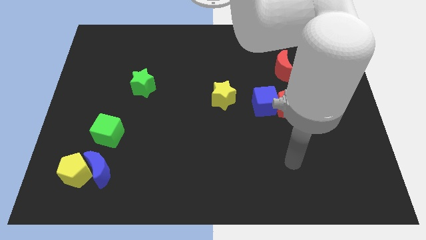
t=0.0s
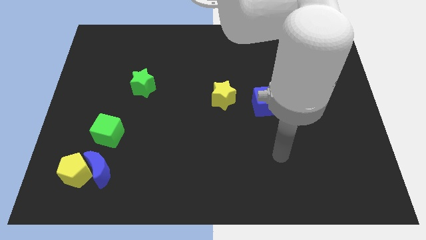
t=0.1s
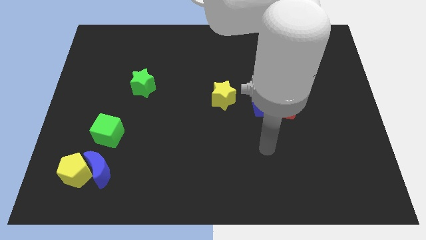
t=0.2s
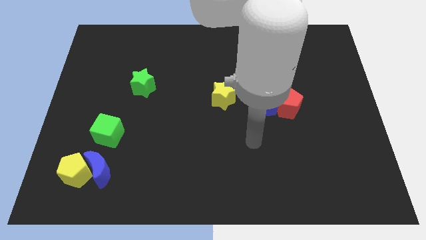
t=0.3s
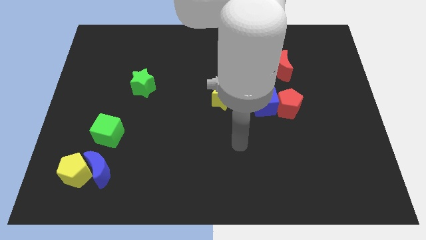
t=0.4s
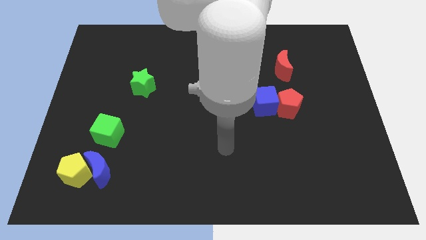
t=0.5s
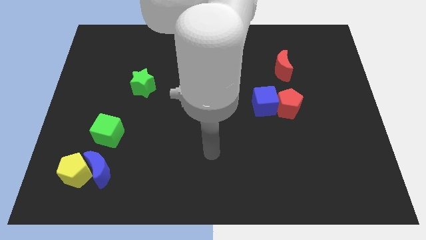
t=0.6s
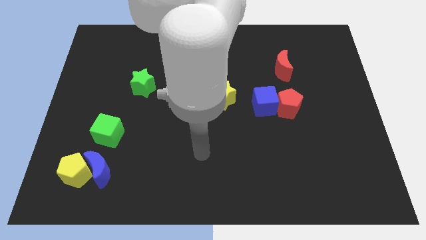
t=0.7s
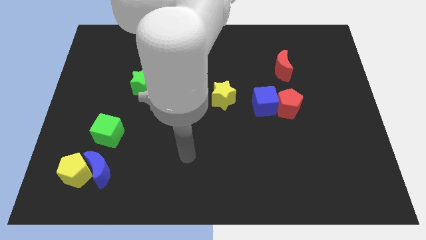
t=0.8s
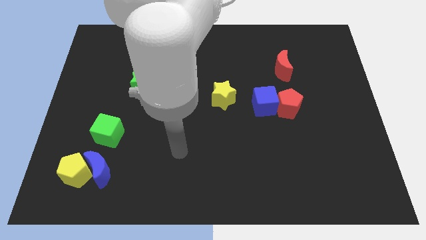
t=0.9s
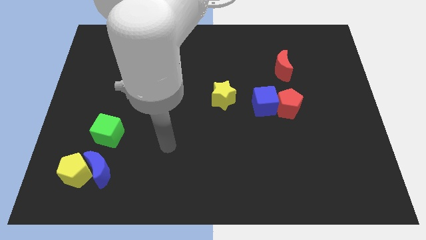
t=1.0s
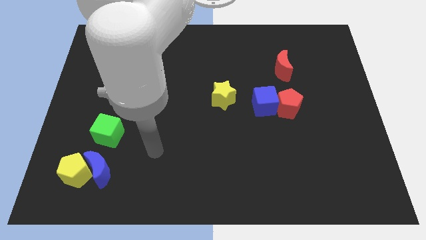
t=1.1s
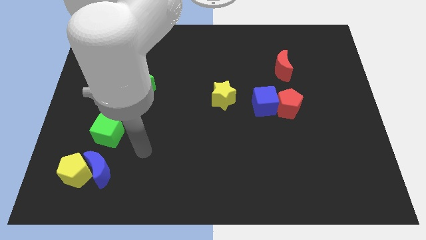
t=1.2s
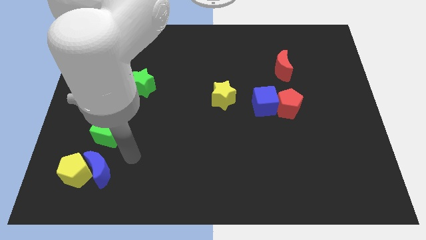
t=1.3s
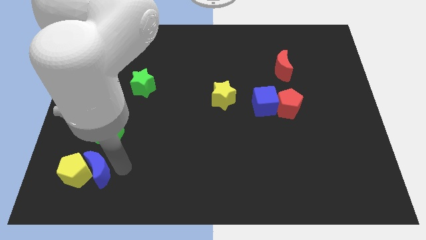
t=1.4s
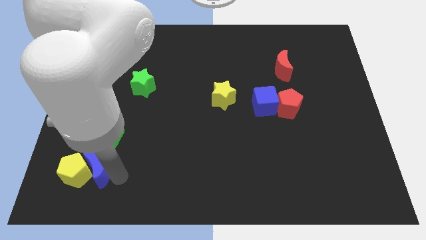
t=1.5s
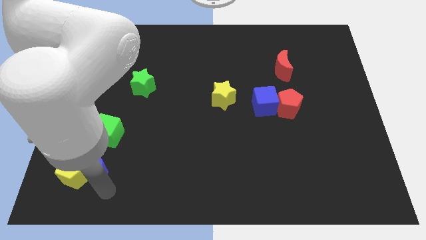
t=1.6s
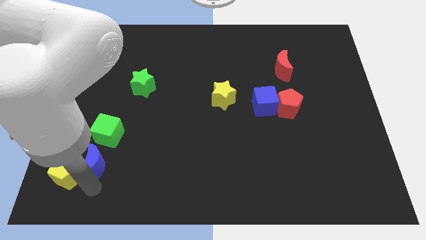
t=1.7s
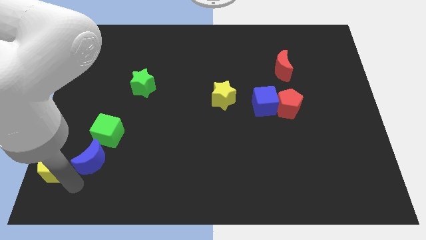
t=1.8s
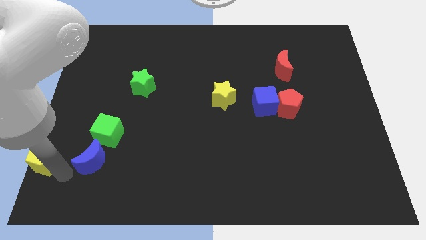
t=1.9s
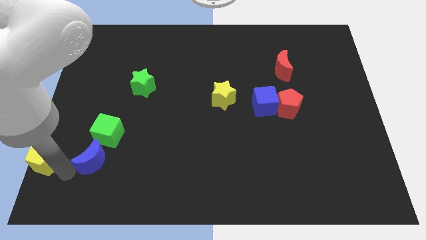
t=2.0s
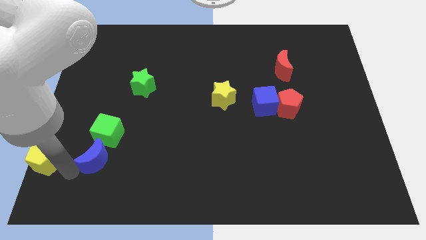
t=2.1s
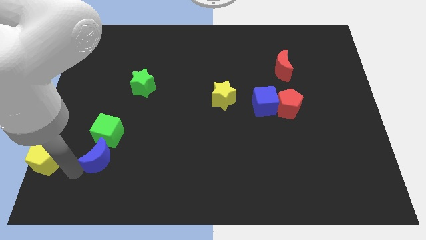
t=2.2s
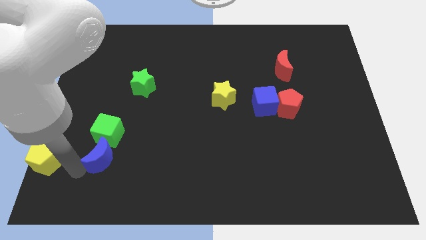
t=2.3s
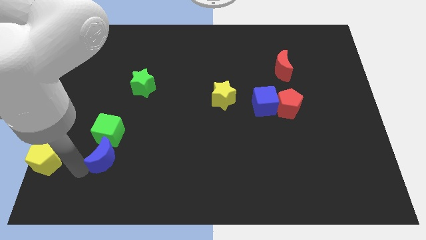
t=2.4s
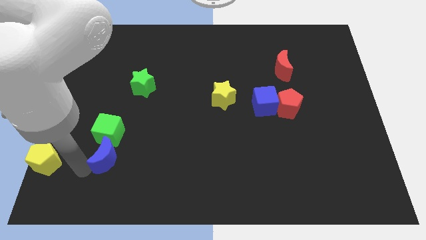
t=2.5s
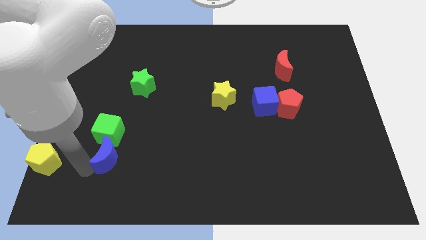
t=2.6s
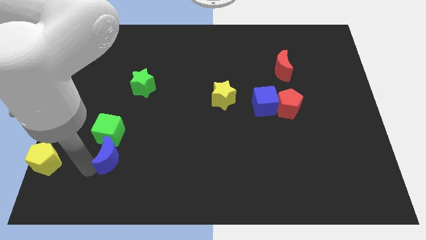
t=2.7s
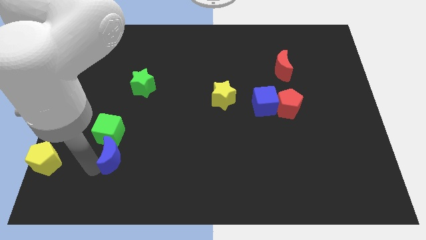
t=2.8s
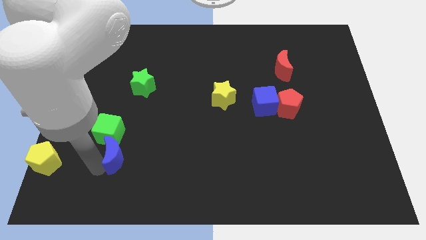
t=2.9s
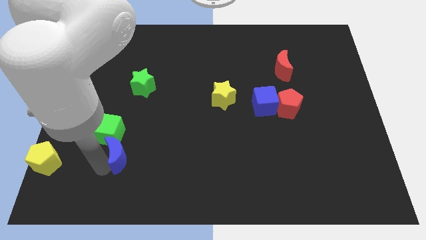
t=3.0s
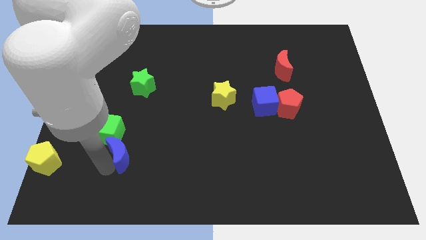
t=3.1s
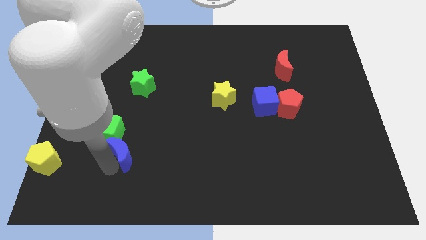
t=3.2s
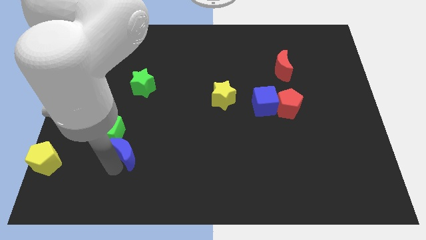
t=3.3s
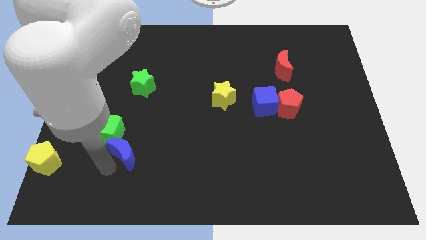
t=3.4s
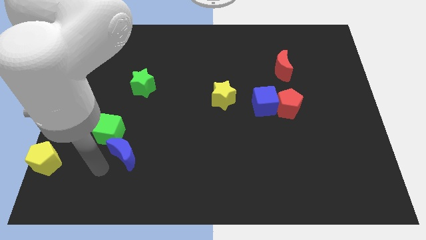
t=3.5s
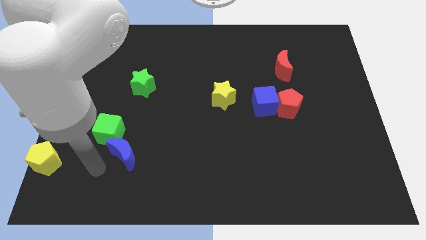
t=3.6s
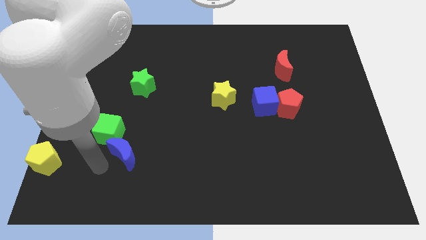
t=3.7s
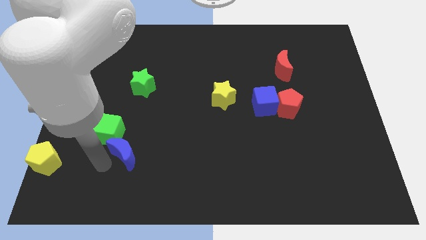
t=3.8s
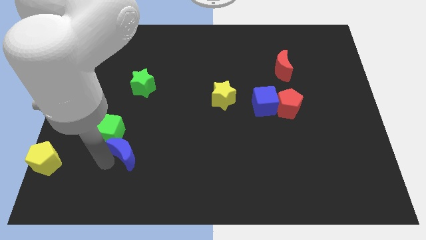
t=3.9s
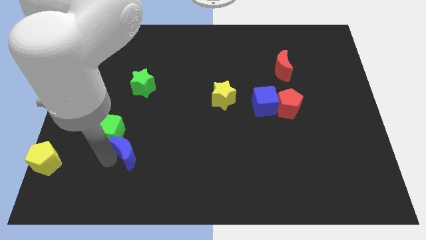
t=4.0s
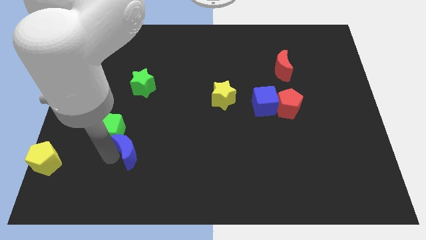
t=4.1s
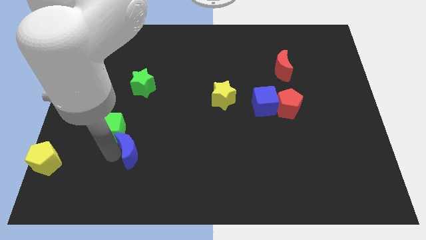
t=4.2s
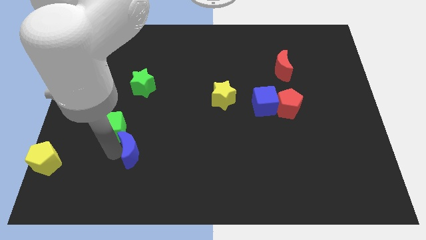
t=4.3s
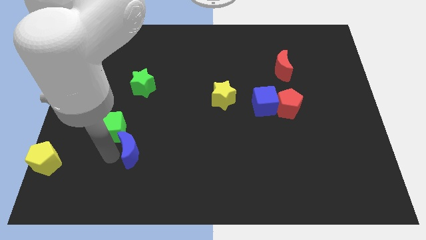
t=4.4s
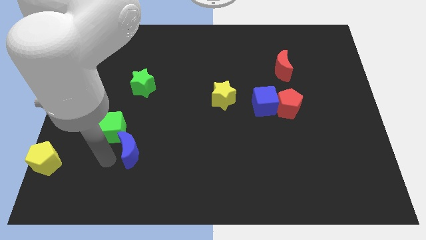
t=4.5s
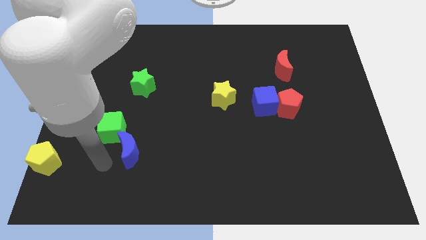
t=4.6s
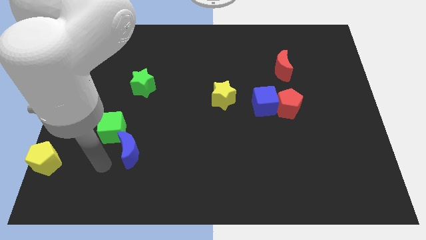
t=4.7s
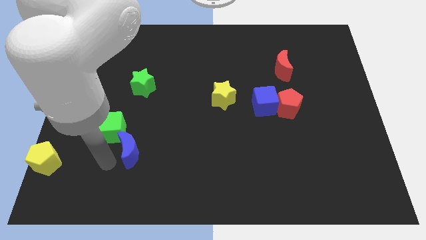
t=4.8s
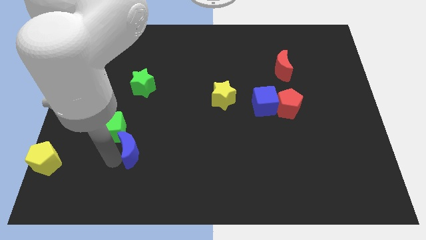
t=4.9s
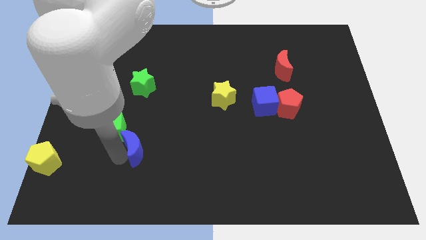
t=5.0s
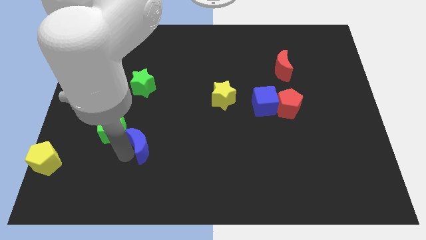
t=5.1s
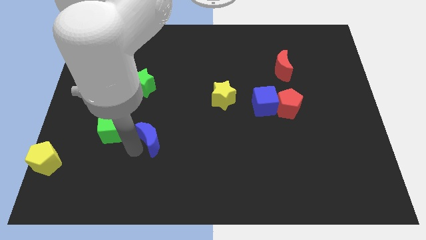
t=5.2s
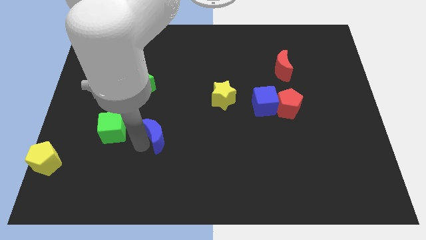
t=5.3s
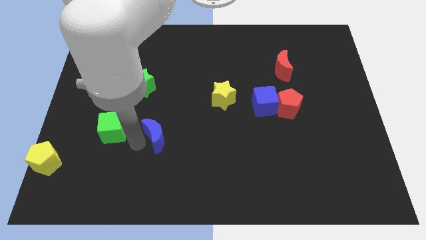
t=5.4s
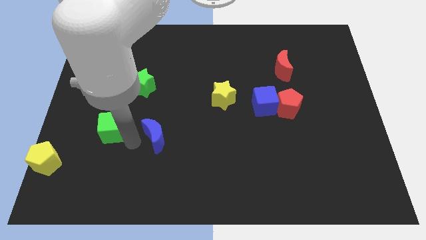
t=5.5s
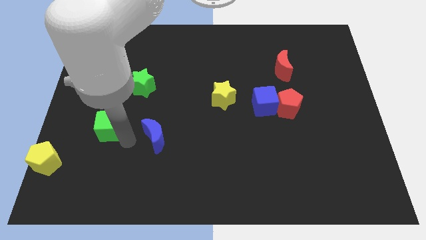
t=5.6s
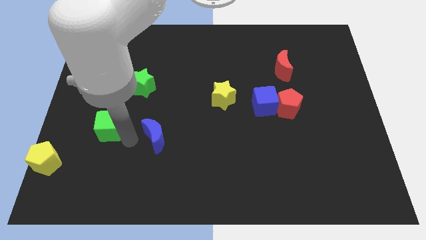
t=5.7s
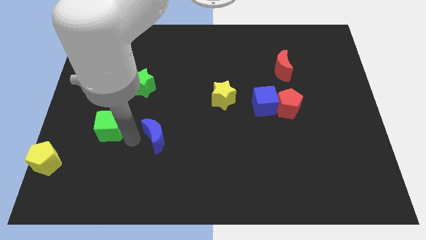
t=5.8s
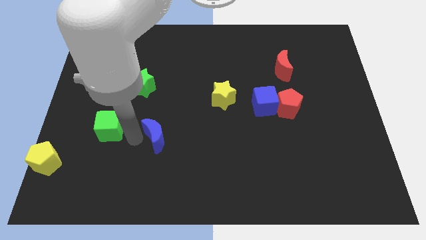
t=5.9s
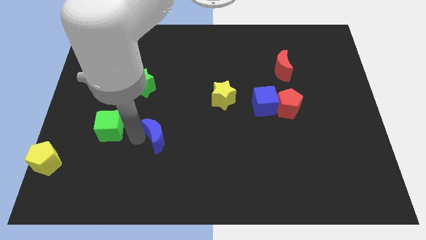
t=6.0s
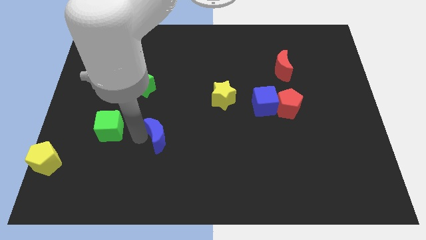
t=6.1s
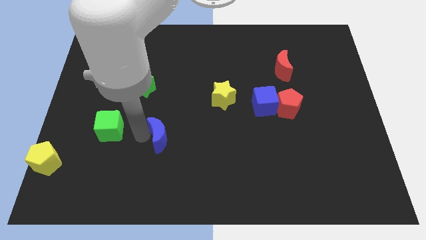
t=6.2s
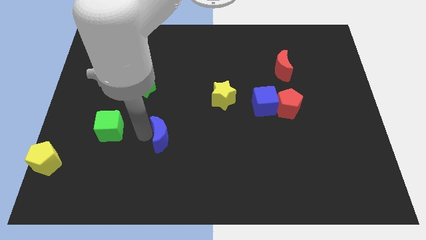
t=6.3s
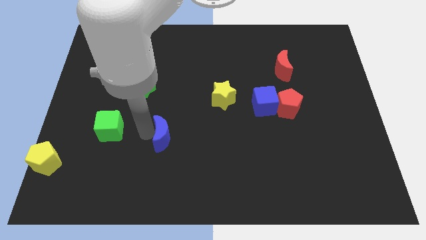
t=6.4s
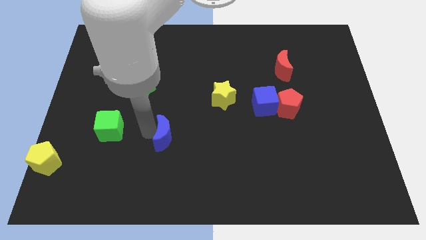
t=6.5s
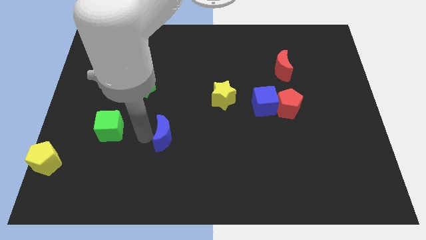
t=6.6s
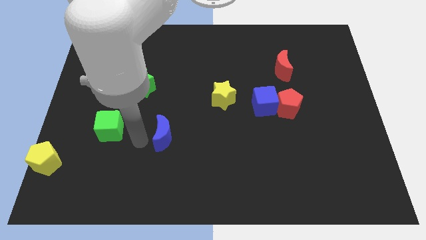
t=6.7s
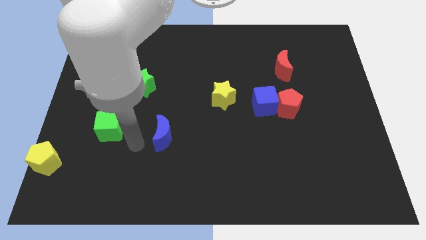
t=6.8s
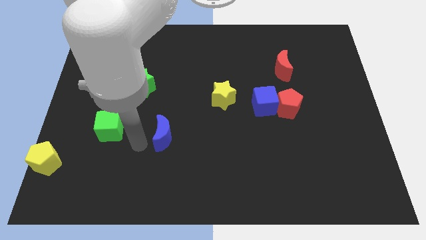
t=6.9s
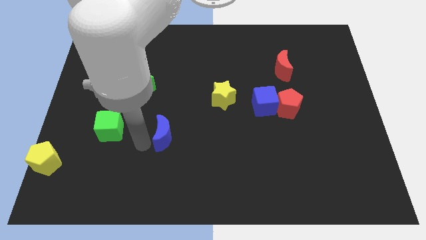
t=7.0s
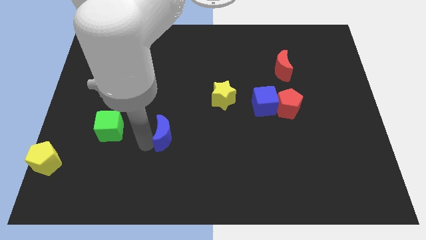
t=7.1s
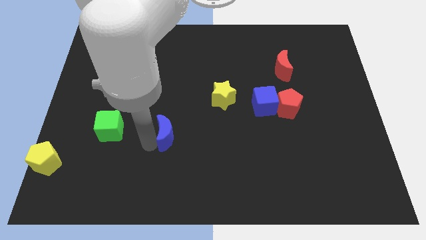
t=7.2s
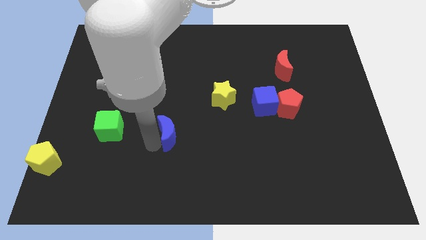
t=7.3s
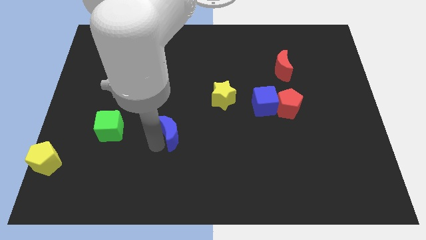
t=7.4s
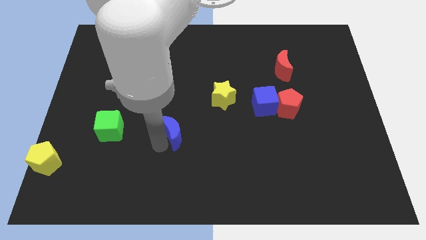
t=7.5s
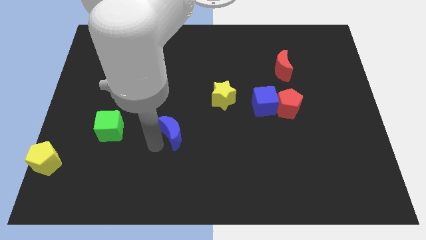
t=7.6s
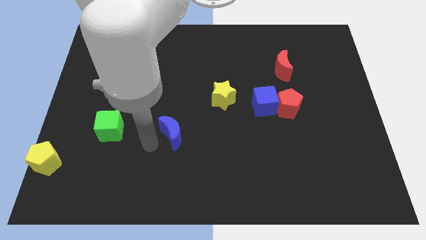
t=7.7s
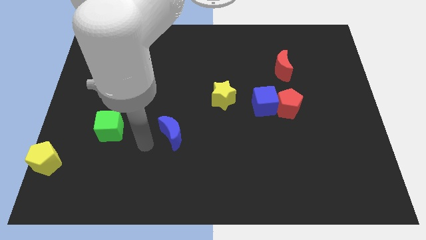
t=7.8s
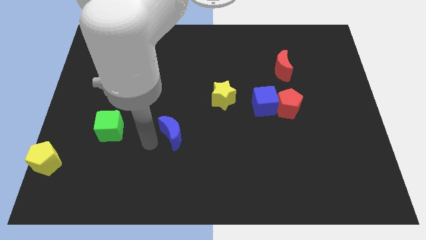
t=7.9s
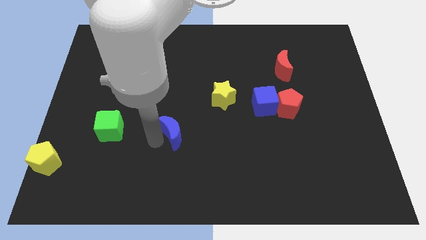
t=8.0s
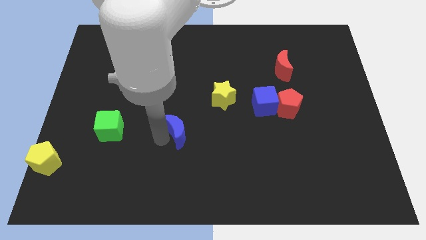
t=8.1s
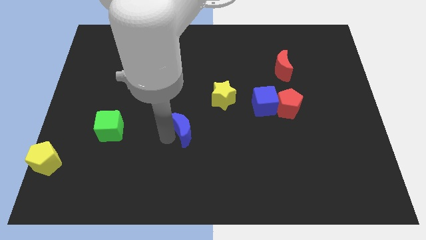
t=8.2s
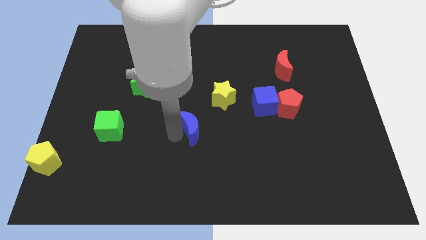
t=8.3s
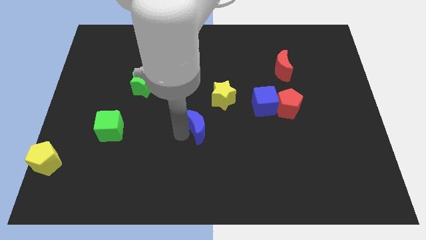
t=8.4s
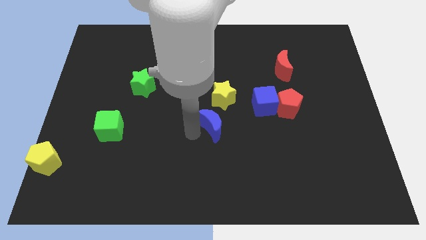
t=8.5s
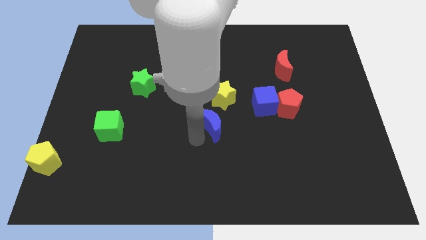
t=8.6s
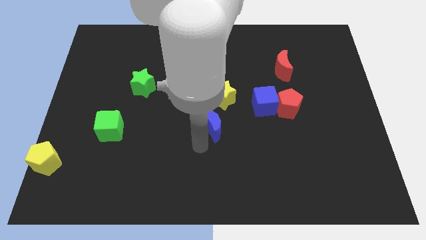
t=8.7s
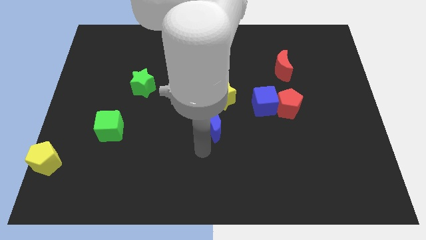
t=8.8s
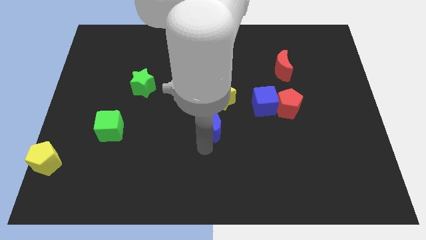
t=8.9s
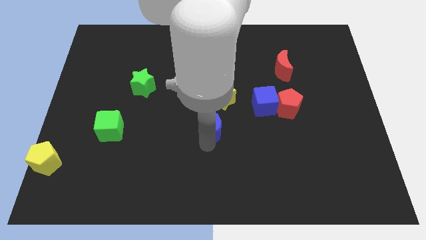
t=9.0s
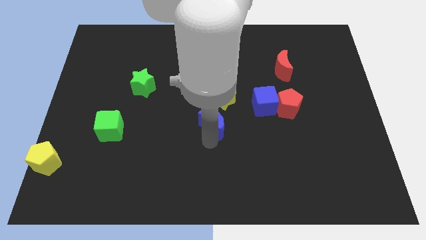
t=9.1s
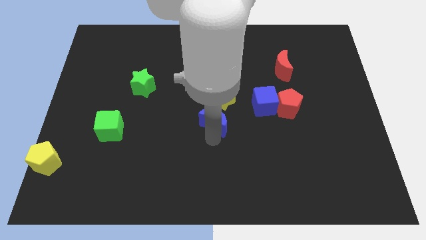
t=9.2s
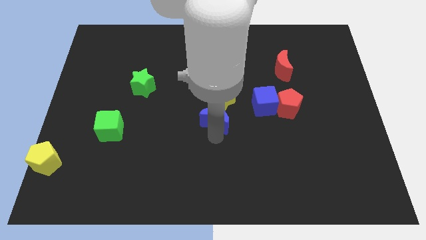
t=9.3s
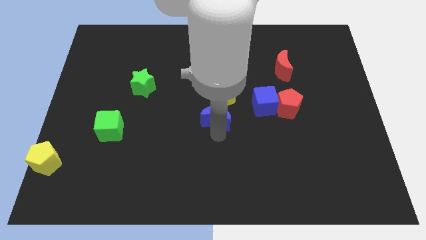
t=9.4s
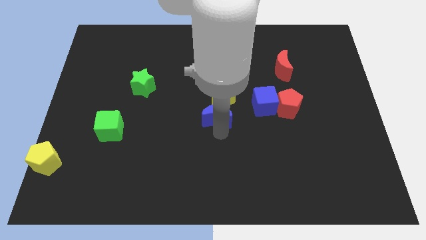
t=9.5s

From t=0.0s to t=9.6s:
move the blue moon towards the yellow star
